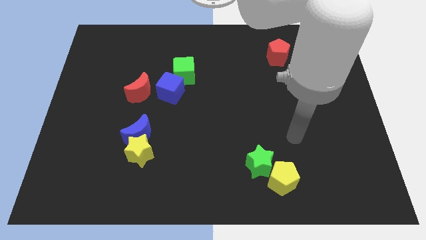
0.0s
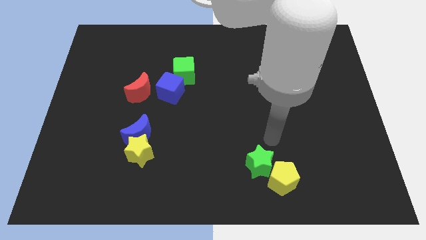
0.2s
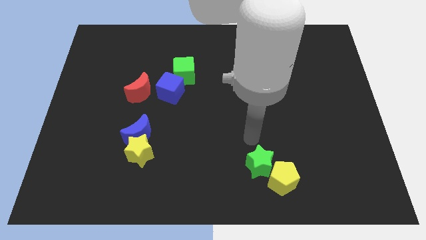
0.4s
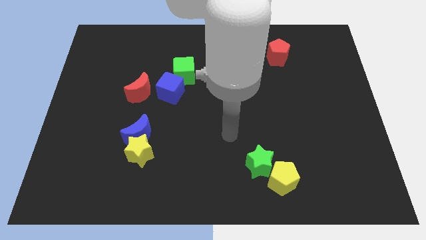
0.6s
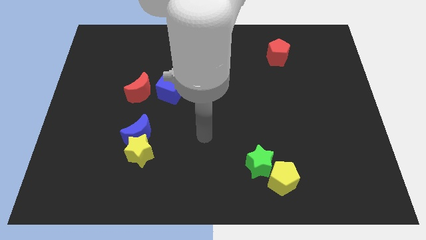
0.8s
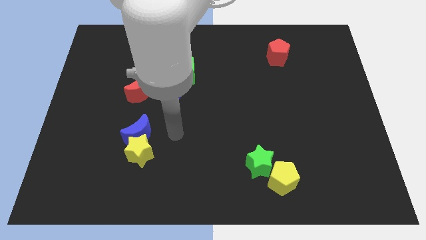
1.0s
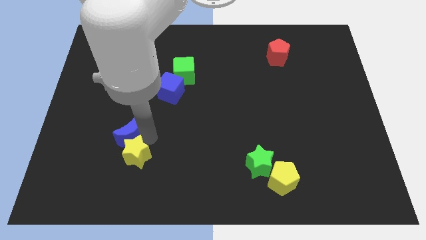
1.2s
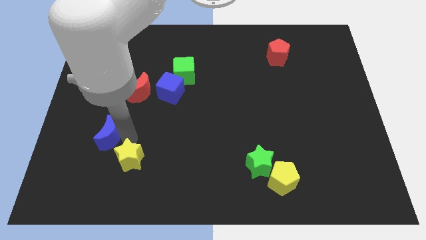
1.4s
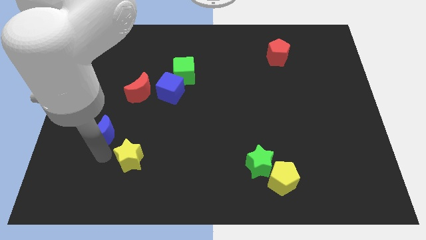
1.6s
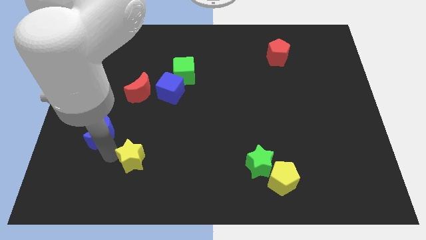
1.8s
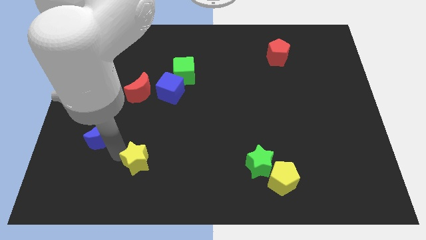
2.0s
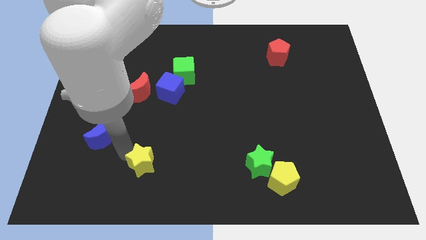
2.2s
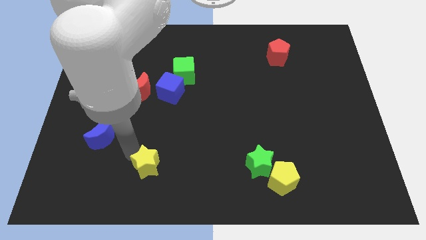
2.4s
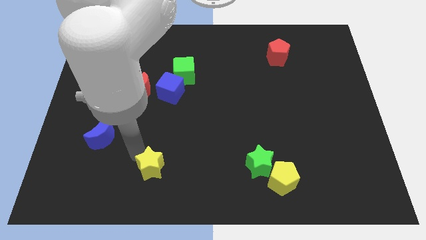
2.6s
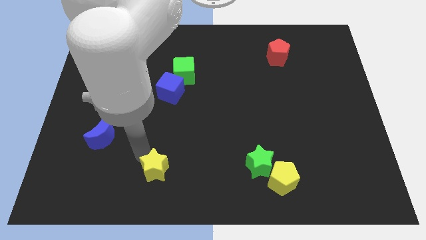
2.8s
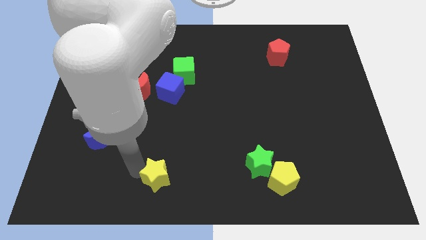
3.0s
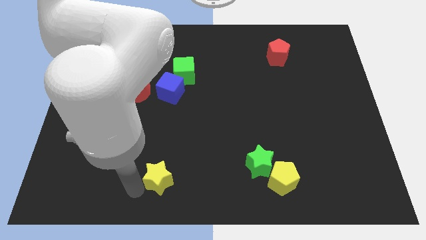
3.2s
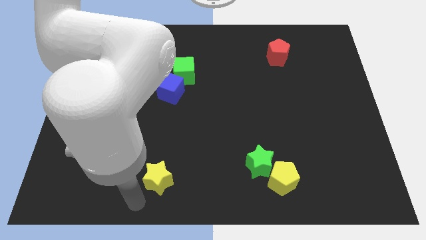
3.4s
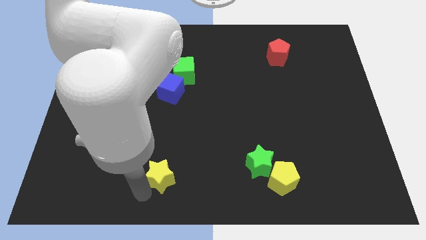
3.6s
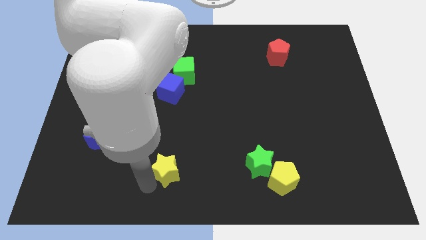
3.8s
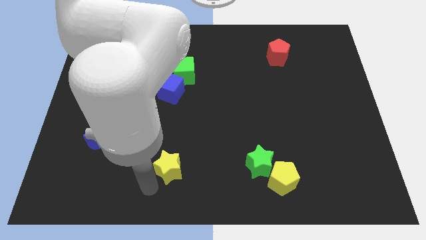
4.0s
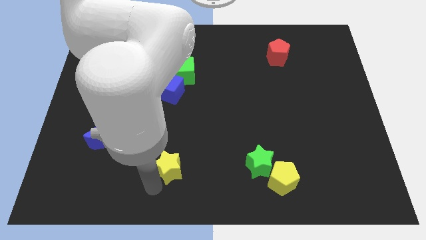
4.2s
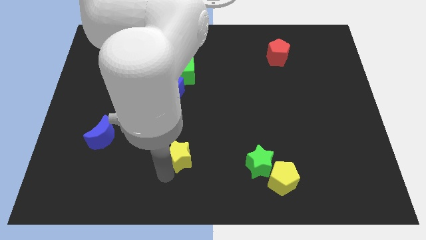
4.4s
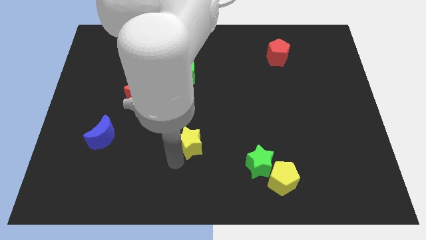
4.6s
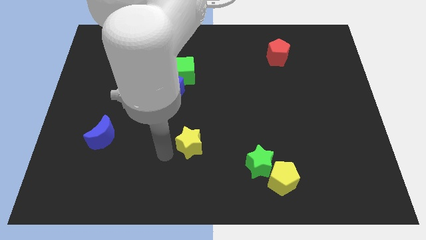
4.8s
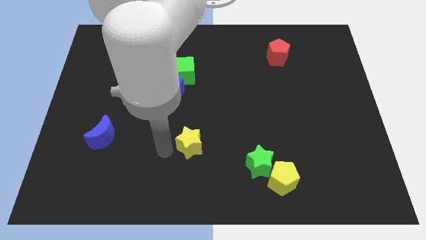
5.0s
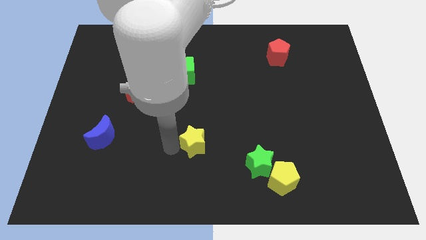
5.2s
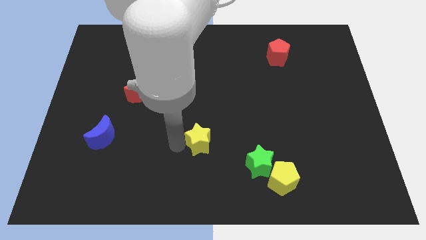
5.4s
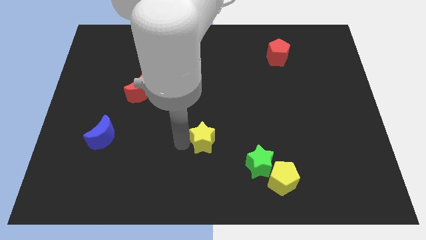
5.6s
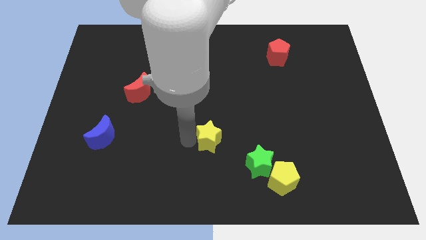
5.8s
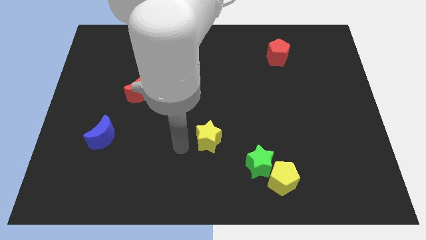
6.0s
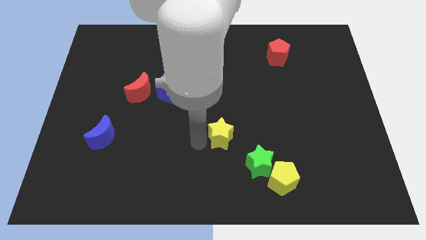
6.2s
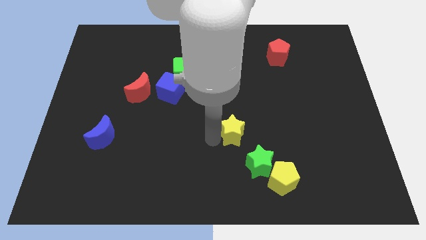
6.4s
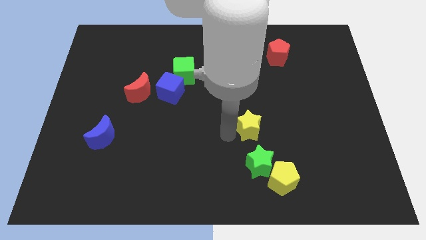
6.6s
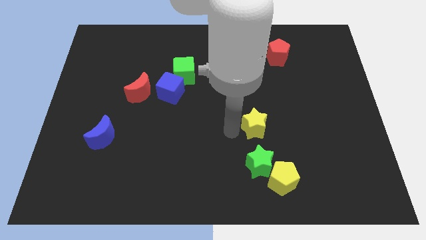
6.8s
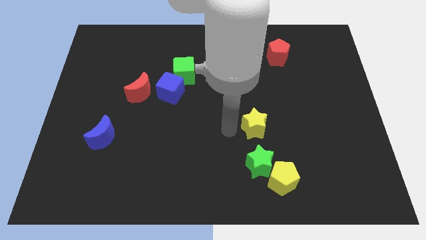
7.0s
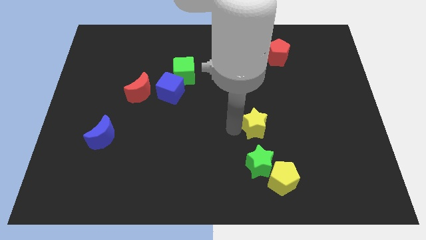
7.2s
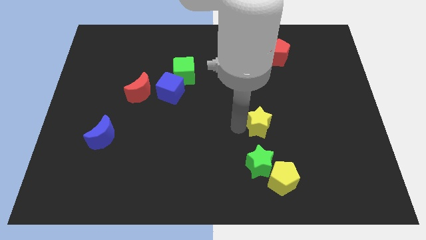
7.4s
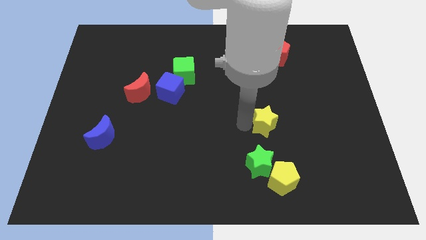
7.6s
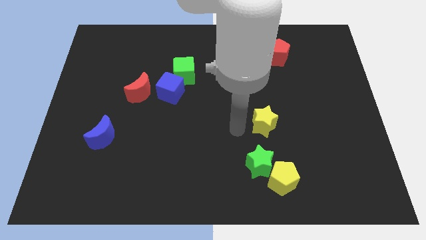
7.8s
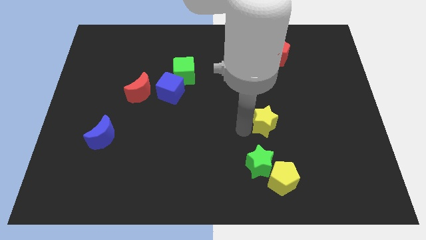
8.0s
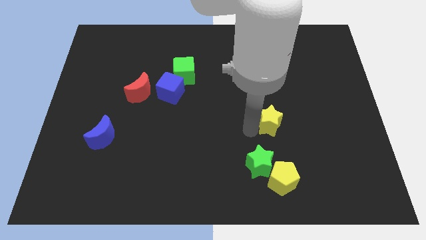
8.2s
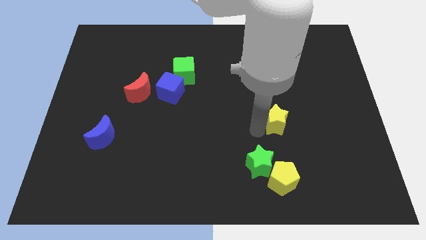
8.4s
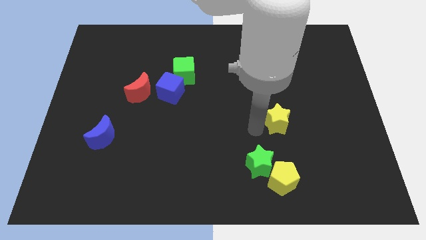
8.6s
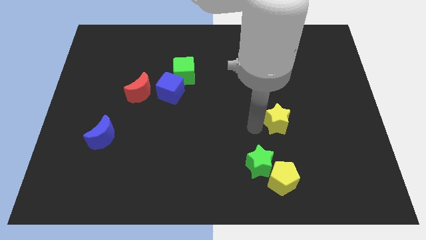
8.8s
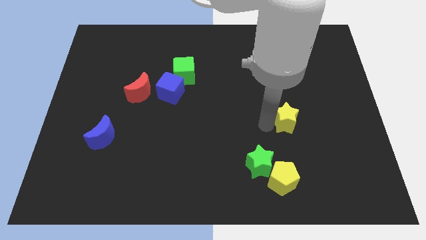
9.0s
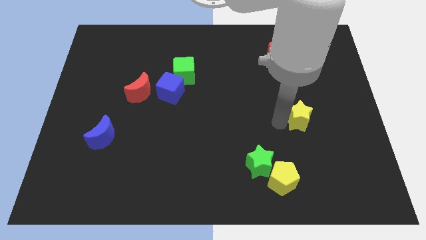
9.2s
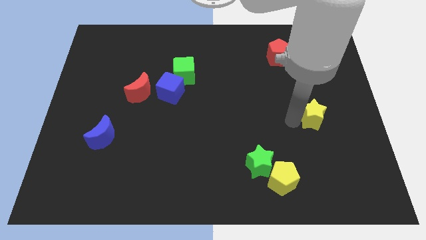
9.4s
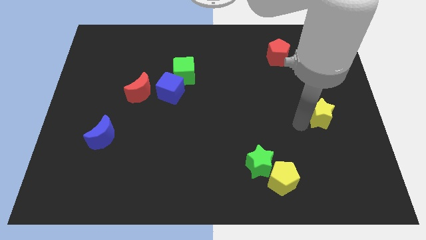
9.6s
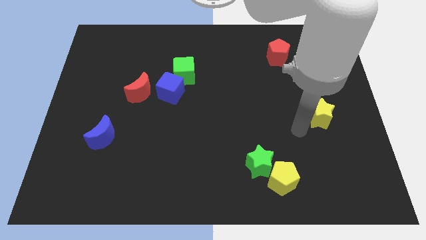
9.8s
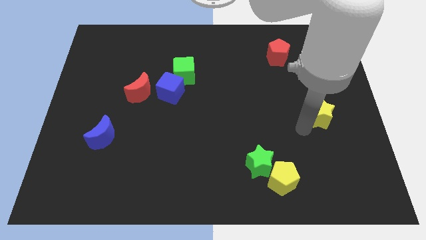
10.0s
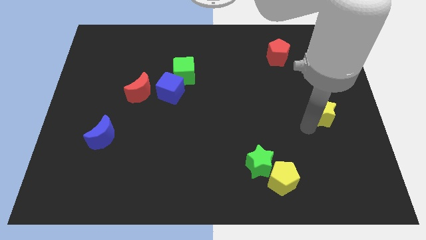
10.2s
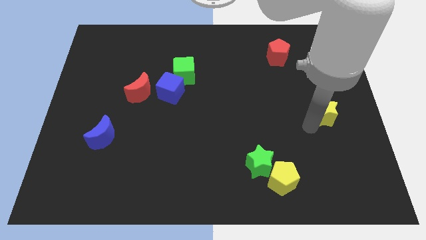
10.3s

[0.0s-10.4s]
put the yellow star to the right side

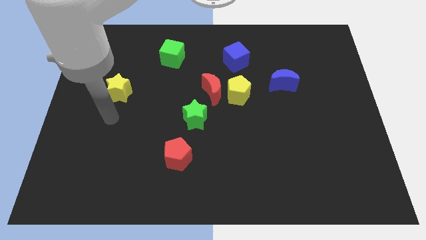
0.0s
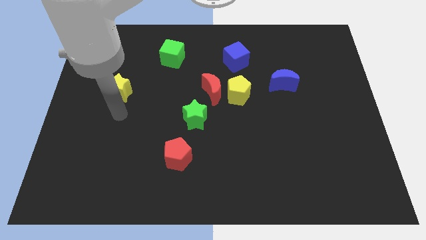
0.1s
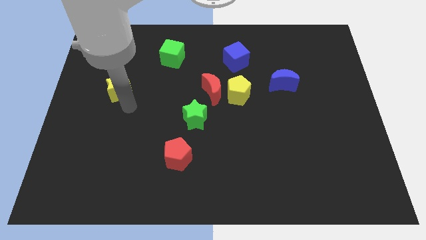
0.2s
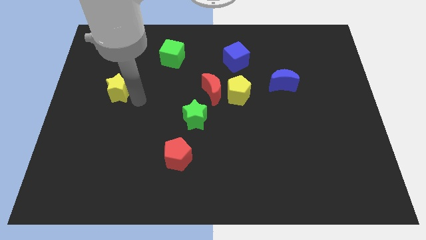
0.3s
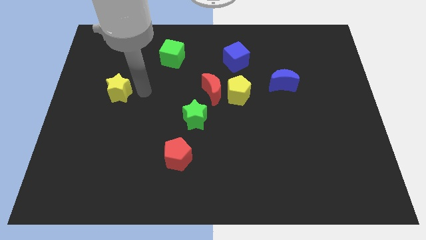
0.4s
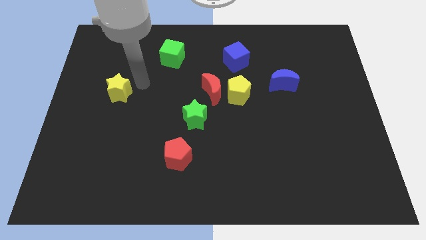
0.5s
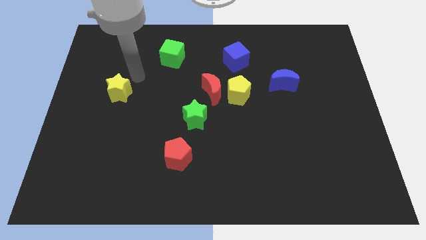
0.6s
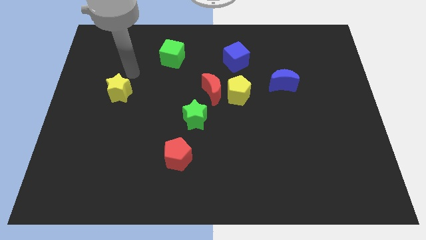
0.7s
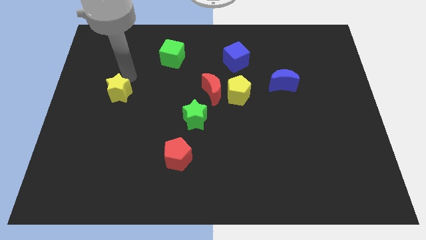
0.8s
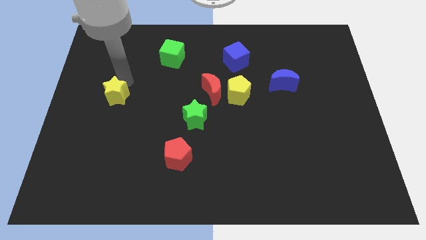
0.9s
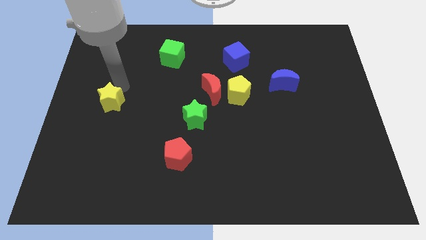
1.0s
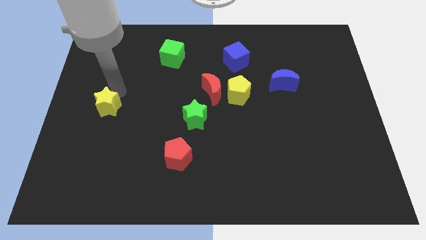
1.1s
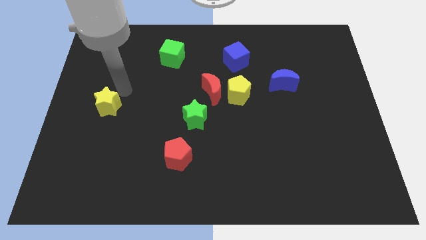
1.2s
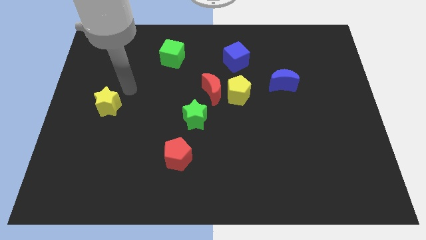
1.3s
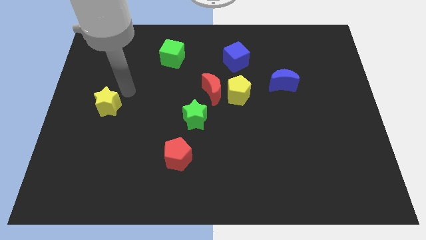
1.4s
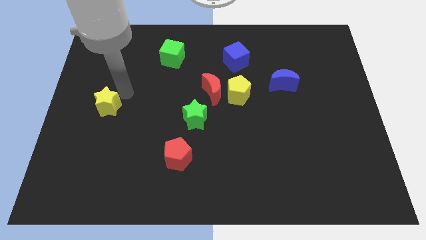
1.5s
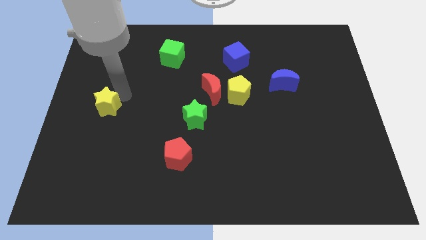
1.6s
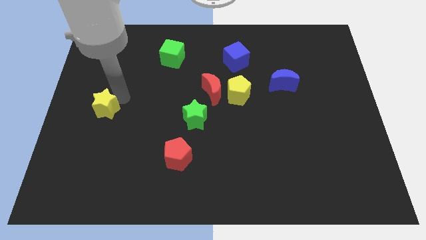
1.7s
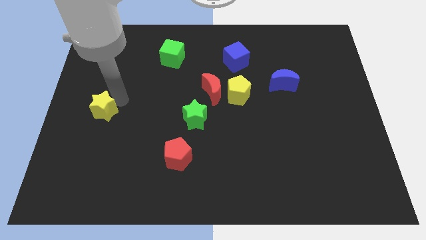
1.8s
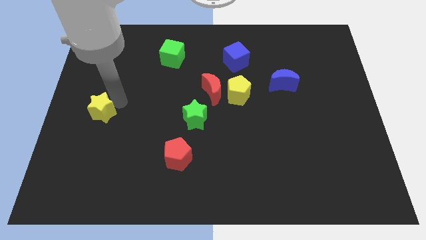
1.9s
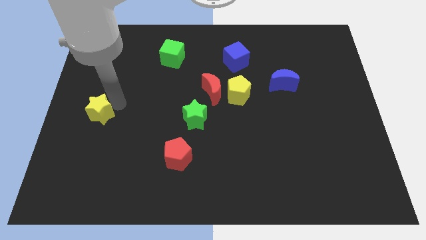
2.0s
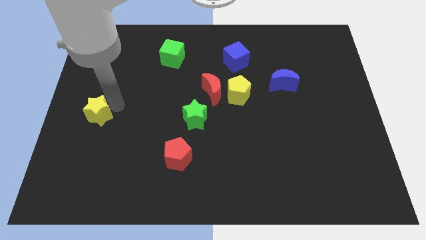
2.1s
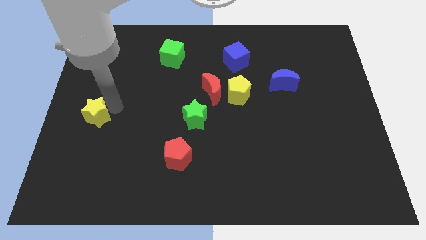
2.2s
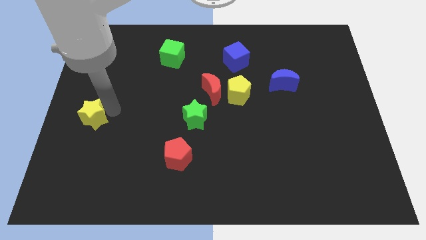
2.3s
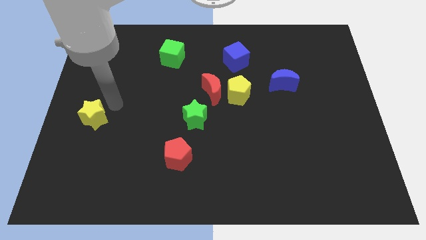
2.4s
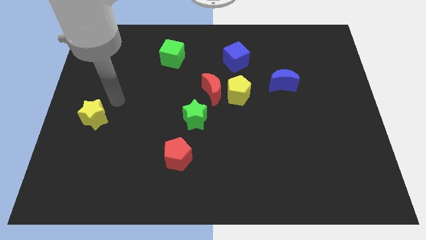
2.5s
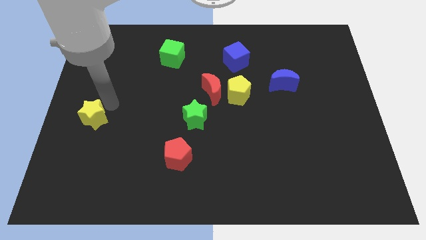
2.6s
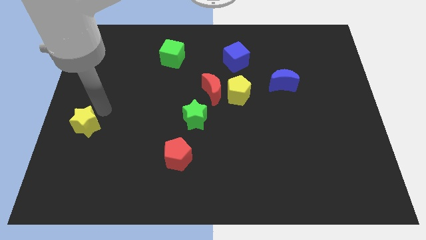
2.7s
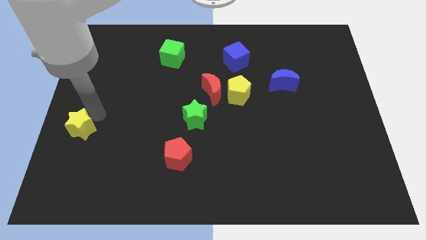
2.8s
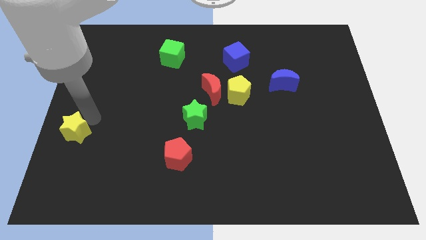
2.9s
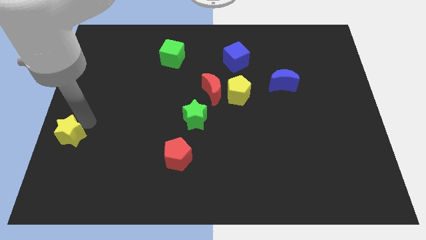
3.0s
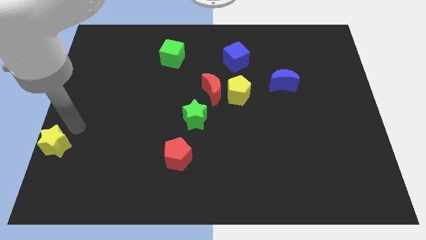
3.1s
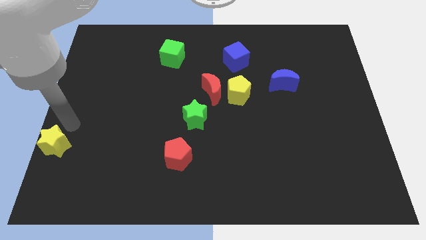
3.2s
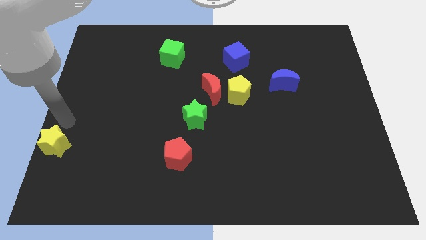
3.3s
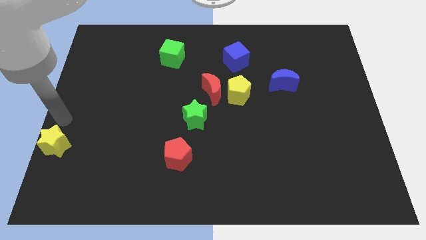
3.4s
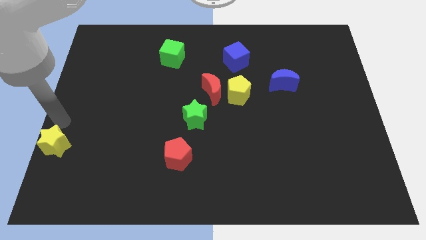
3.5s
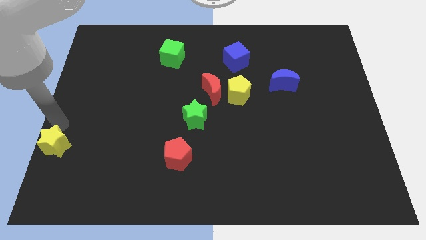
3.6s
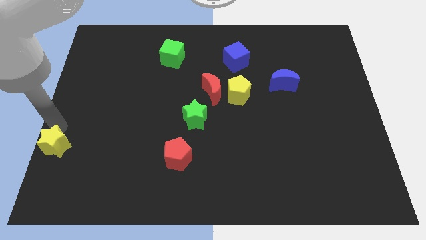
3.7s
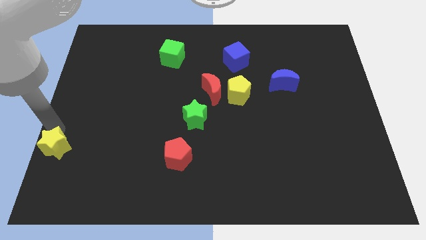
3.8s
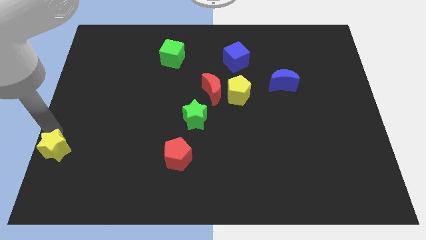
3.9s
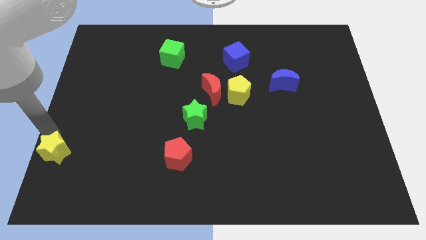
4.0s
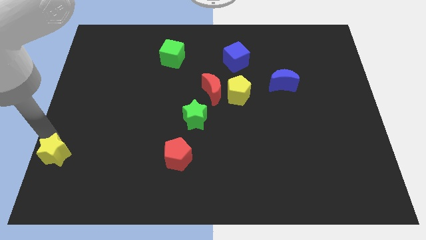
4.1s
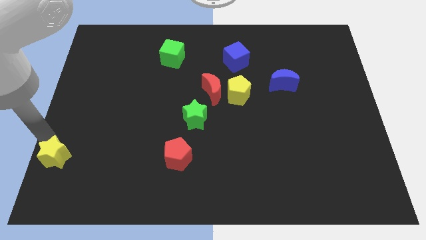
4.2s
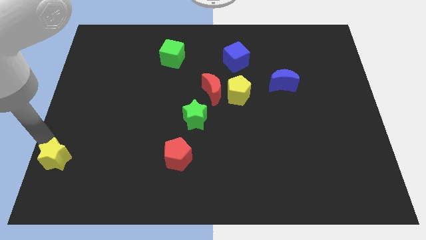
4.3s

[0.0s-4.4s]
put the yellow star to the bottom left corner
